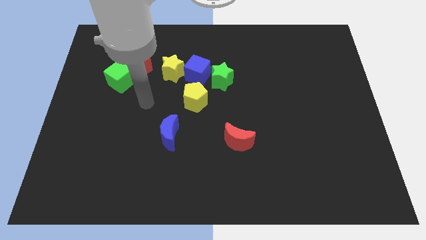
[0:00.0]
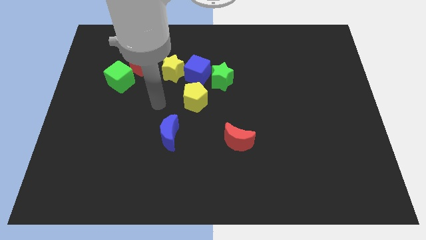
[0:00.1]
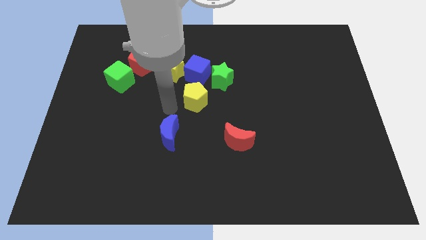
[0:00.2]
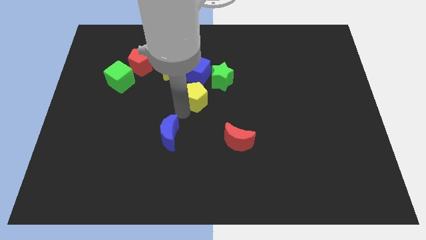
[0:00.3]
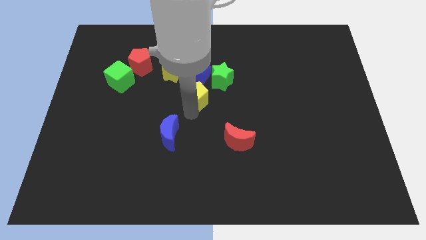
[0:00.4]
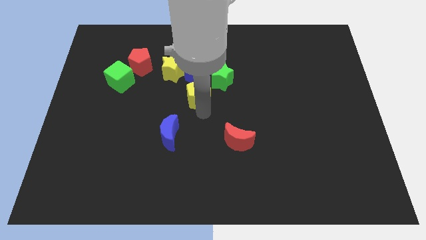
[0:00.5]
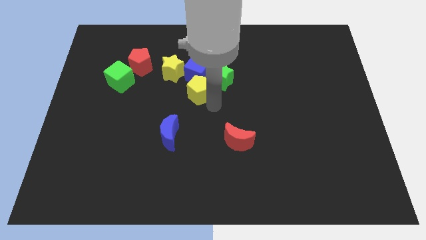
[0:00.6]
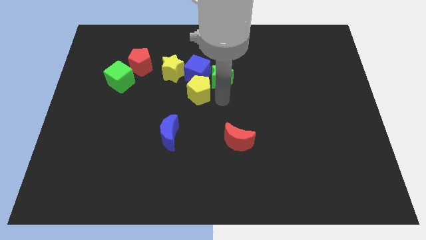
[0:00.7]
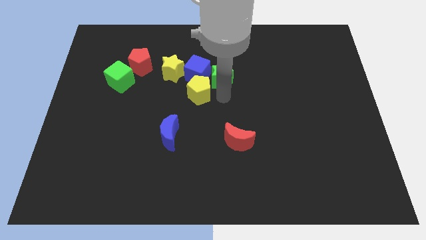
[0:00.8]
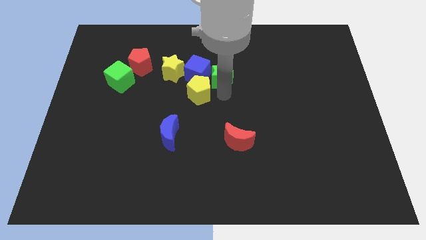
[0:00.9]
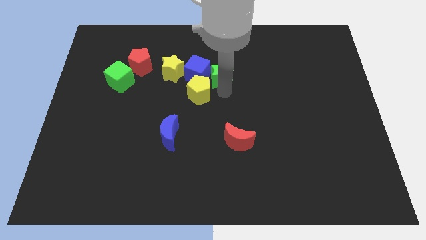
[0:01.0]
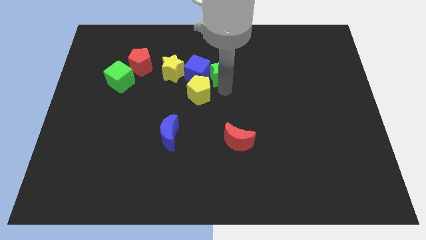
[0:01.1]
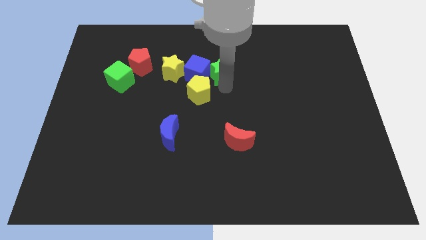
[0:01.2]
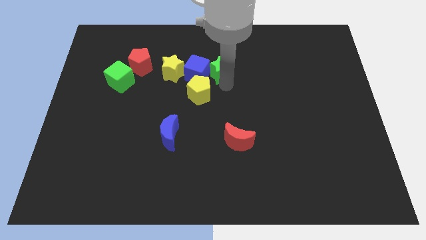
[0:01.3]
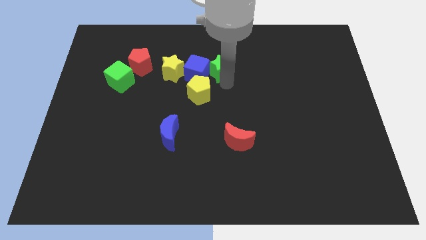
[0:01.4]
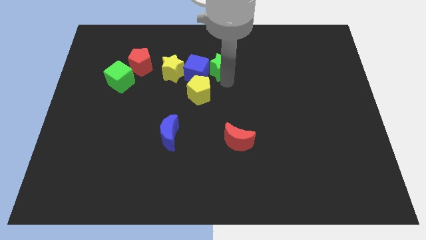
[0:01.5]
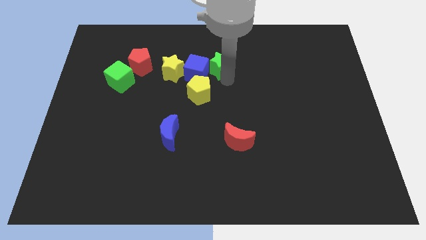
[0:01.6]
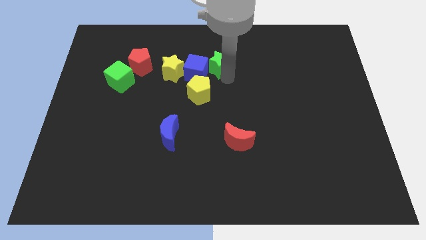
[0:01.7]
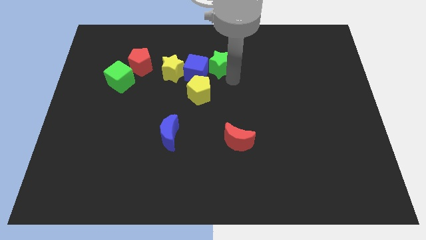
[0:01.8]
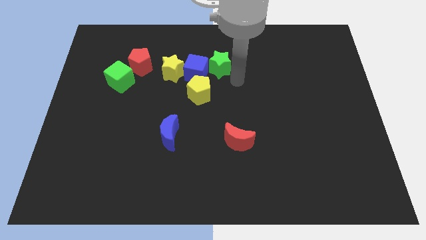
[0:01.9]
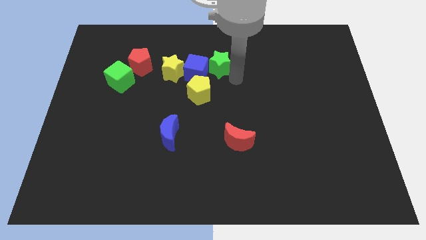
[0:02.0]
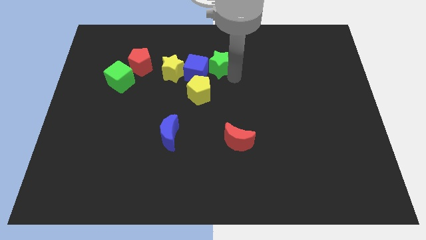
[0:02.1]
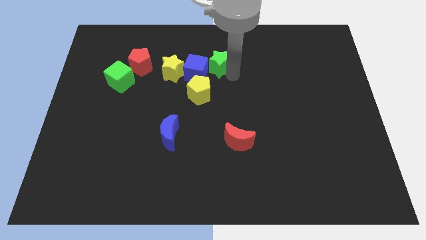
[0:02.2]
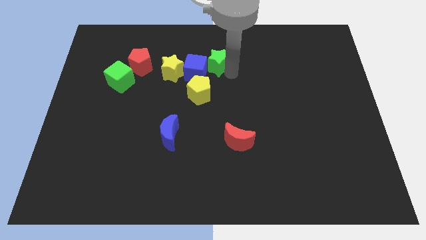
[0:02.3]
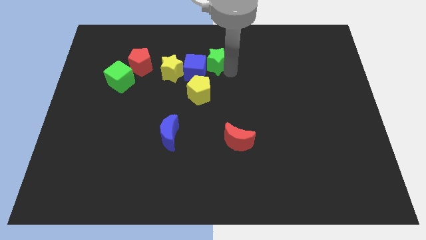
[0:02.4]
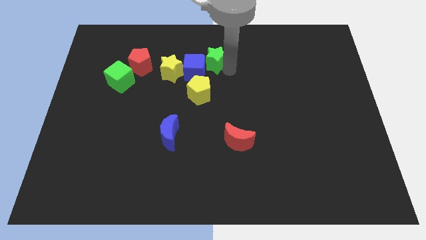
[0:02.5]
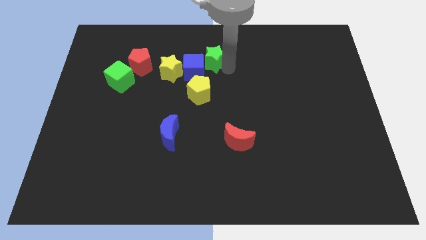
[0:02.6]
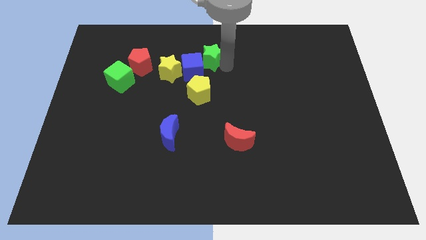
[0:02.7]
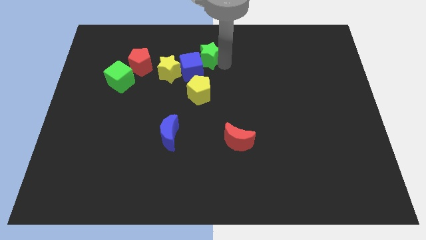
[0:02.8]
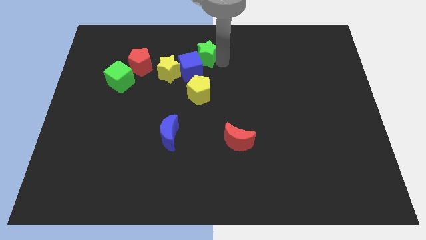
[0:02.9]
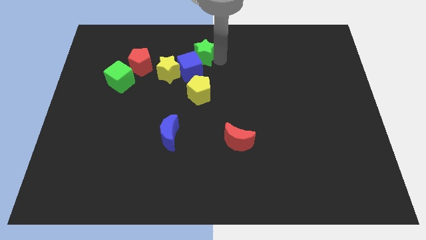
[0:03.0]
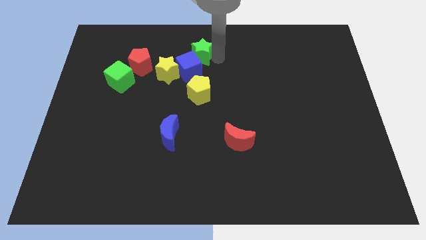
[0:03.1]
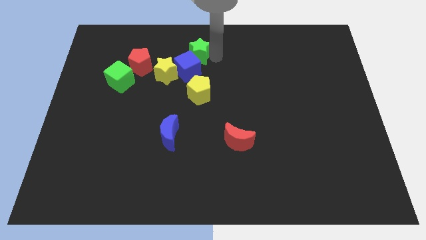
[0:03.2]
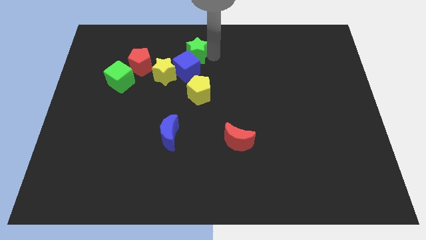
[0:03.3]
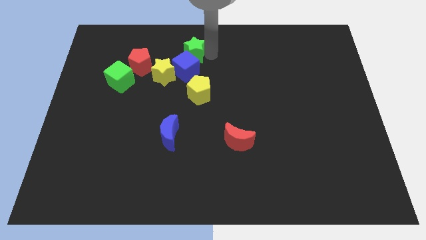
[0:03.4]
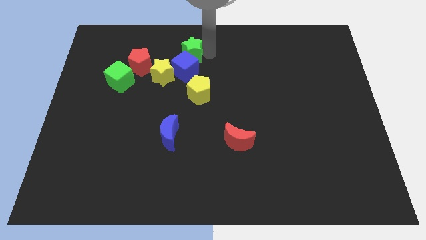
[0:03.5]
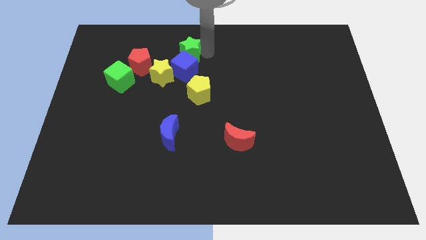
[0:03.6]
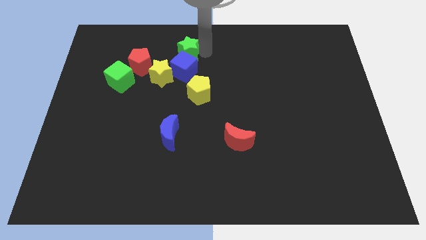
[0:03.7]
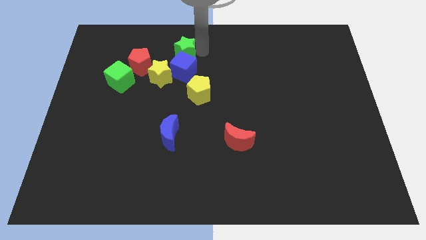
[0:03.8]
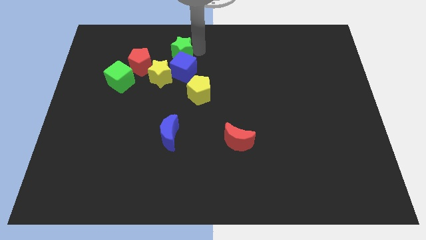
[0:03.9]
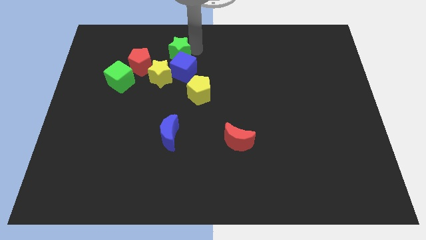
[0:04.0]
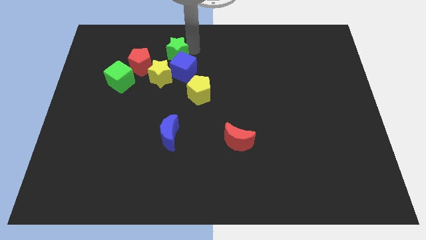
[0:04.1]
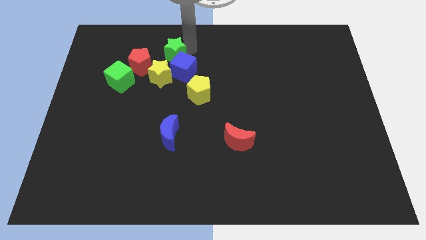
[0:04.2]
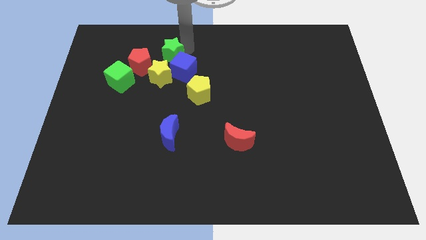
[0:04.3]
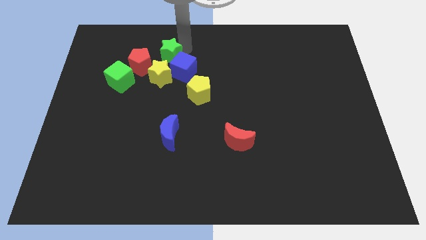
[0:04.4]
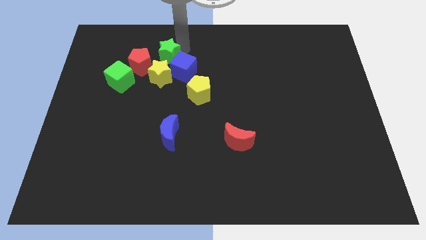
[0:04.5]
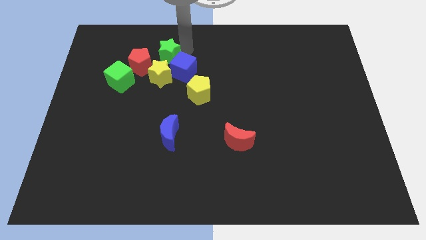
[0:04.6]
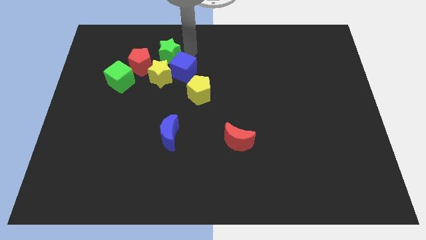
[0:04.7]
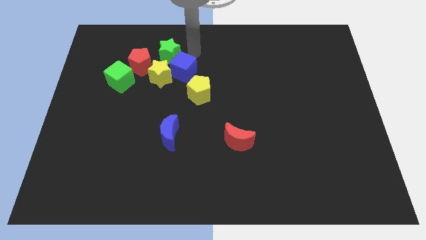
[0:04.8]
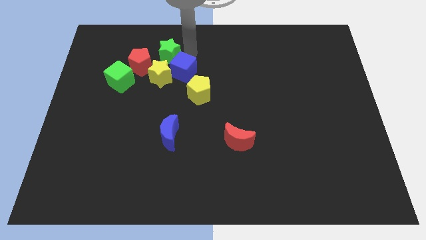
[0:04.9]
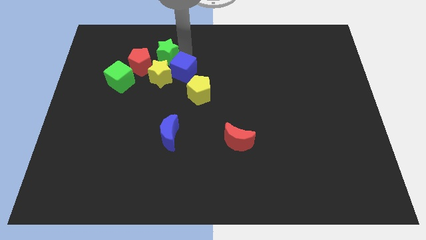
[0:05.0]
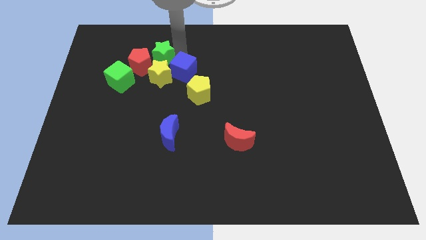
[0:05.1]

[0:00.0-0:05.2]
move the green star to the top right side of the green cube

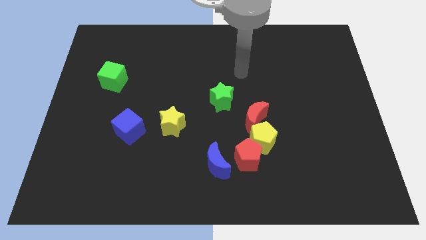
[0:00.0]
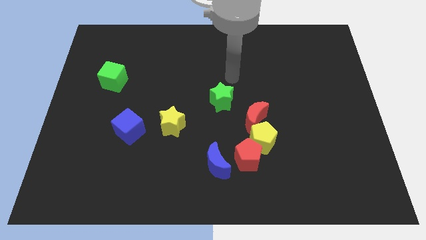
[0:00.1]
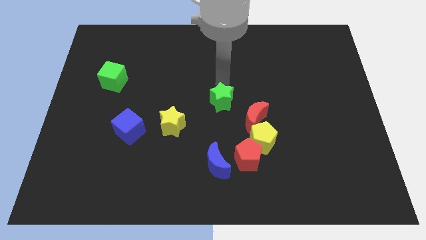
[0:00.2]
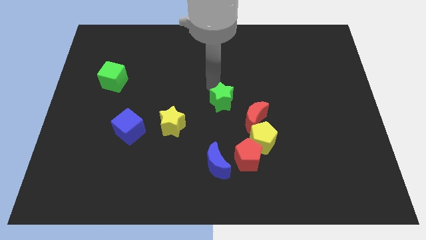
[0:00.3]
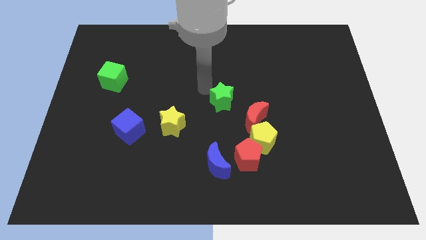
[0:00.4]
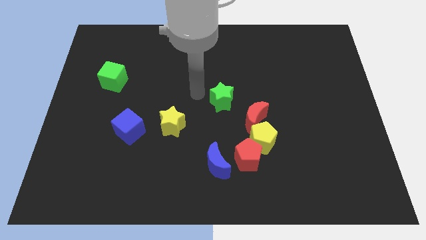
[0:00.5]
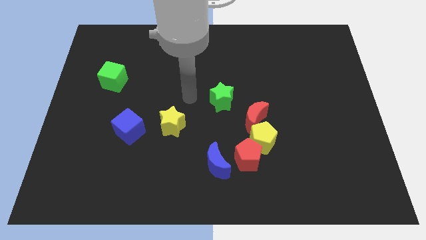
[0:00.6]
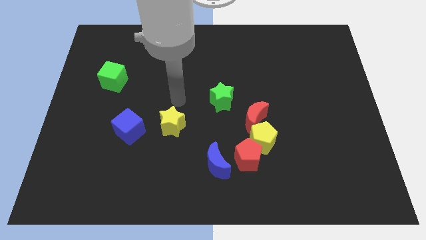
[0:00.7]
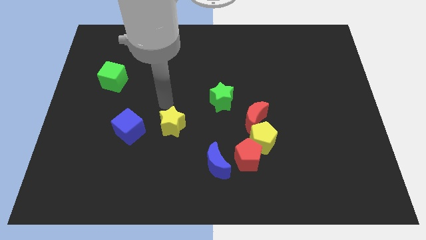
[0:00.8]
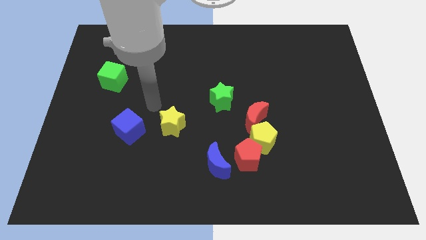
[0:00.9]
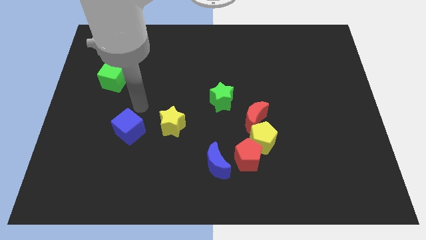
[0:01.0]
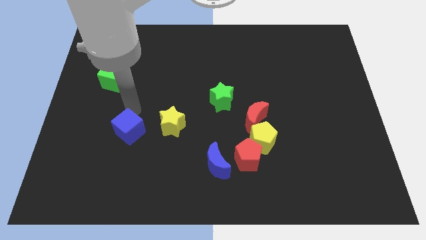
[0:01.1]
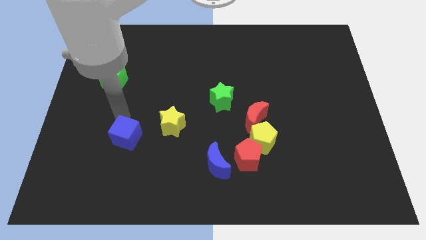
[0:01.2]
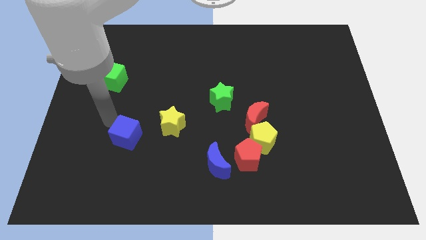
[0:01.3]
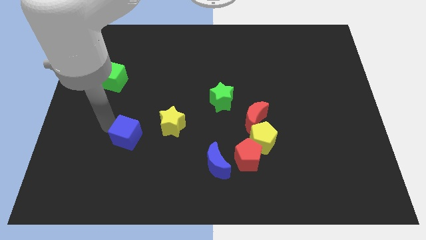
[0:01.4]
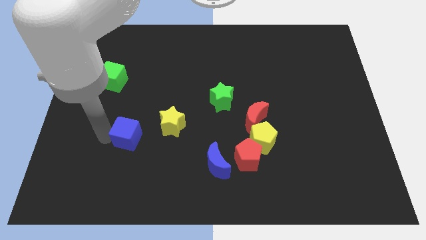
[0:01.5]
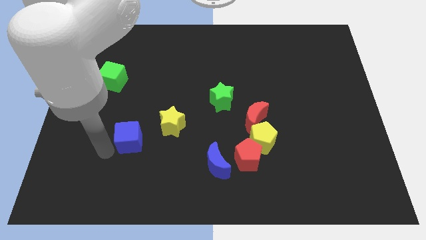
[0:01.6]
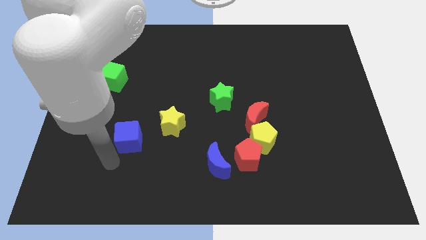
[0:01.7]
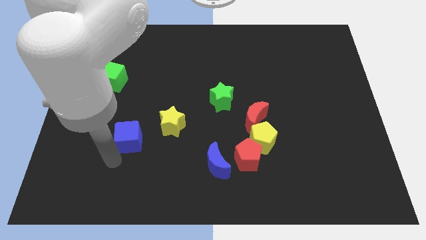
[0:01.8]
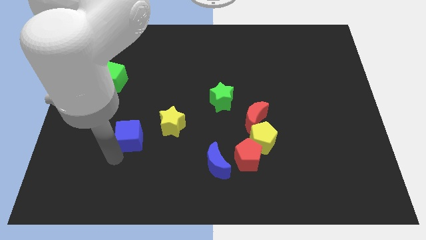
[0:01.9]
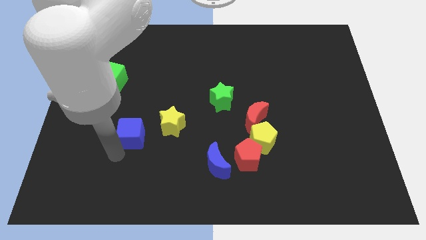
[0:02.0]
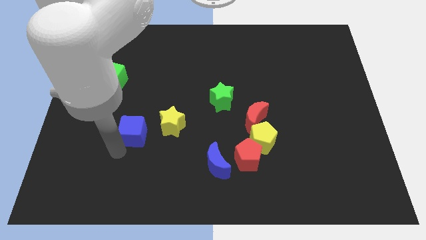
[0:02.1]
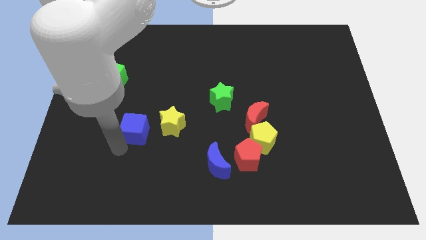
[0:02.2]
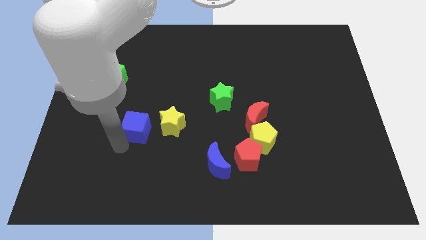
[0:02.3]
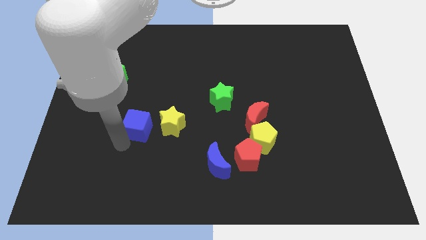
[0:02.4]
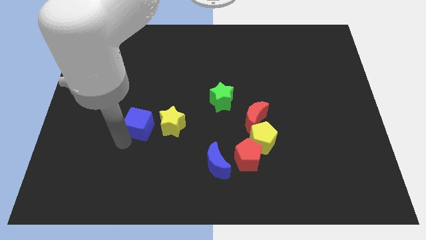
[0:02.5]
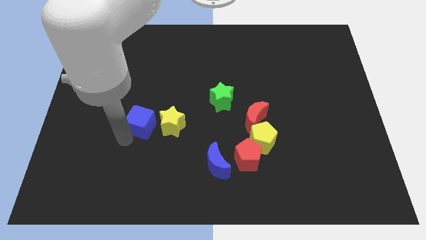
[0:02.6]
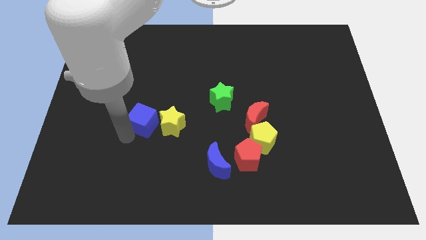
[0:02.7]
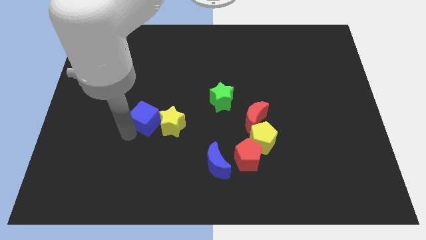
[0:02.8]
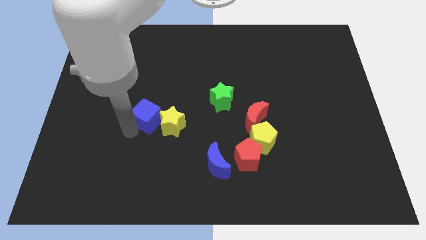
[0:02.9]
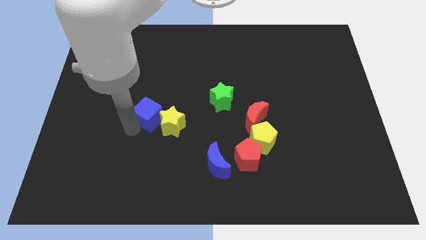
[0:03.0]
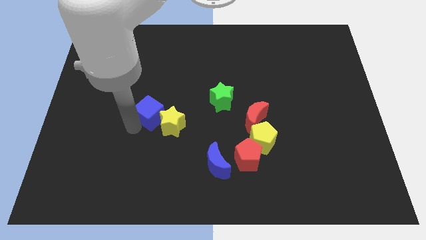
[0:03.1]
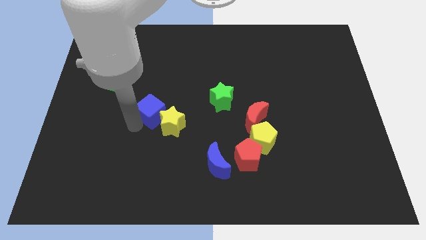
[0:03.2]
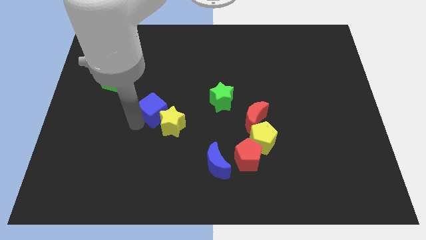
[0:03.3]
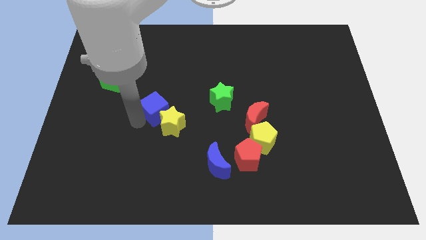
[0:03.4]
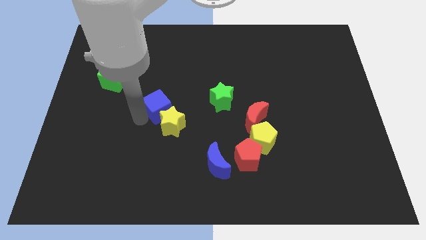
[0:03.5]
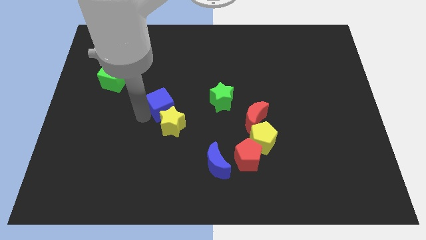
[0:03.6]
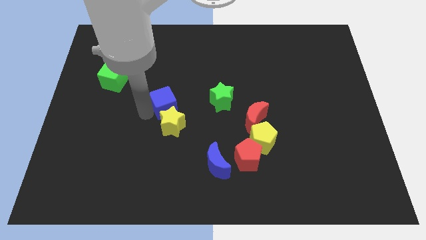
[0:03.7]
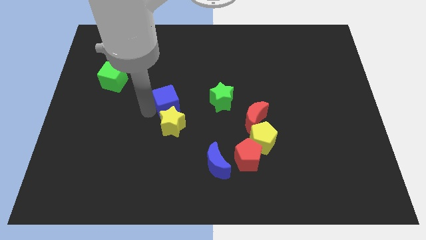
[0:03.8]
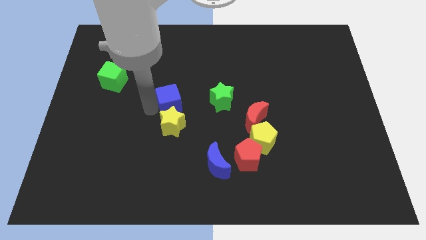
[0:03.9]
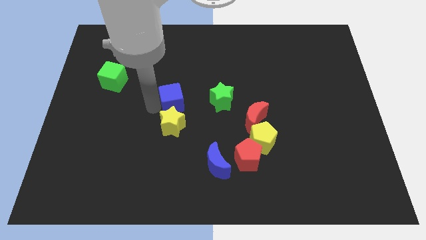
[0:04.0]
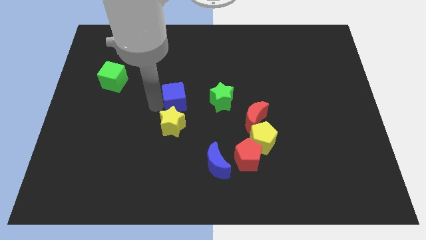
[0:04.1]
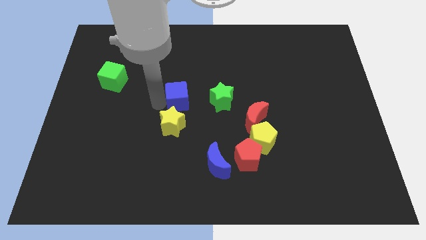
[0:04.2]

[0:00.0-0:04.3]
put the blue cube to the top right of the yellow star
